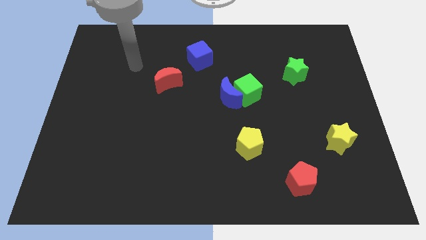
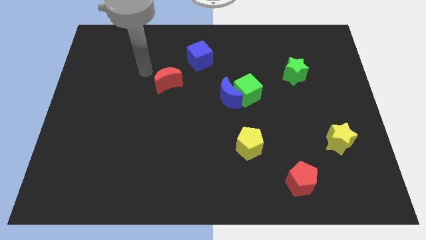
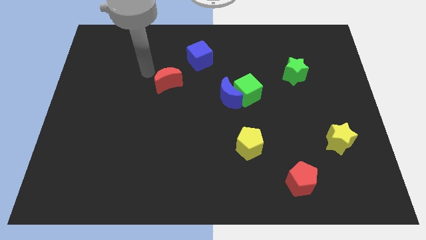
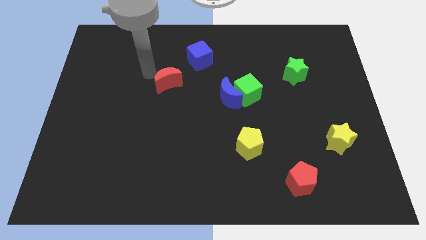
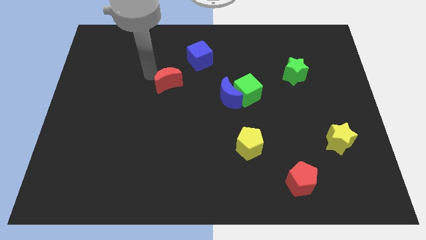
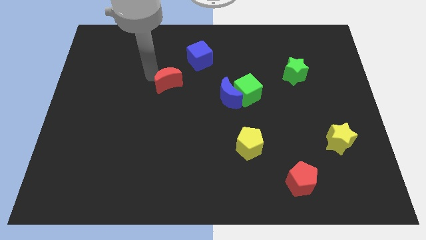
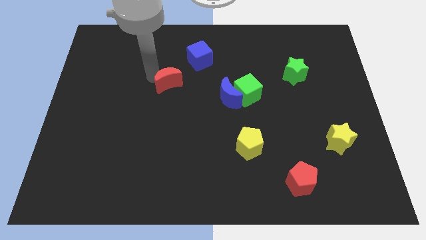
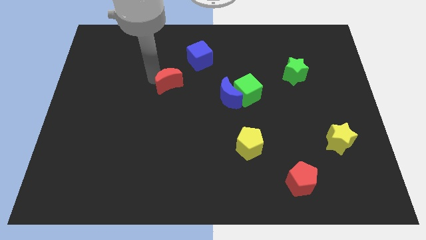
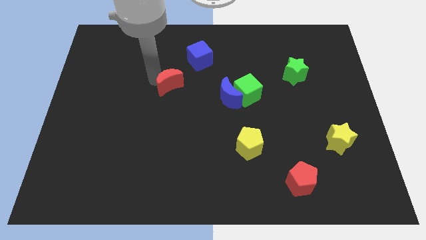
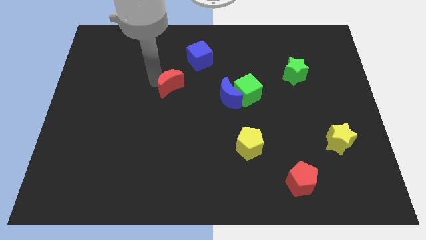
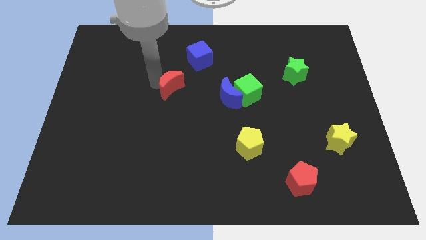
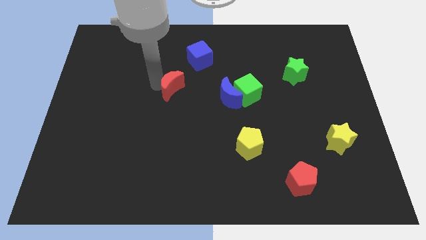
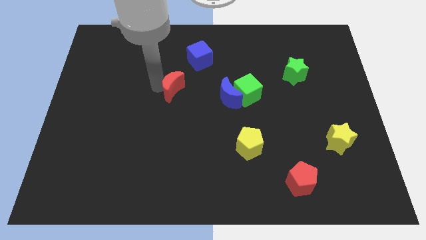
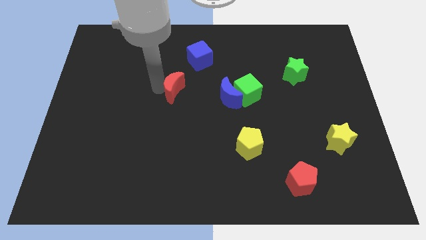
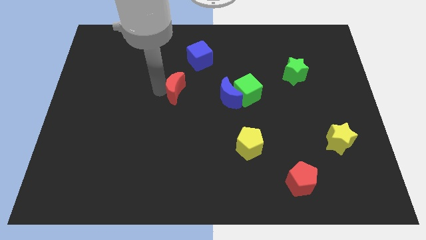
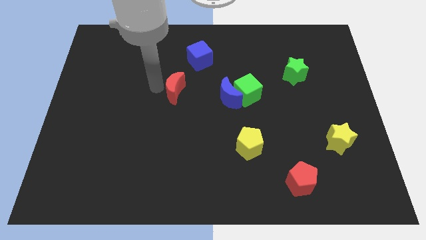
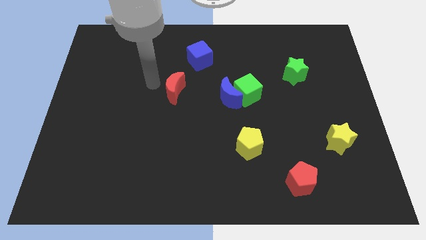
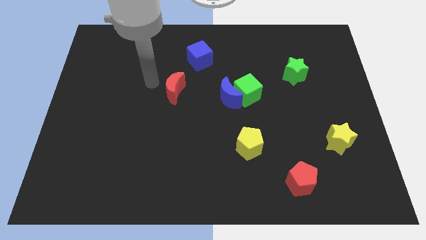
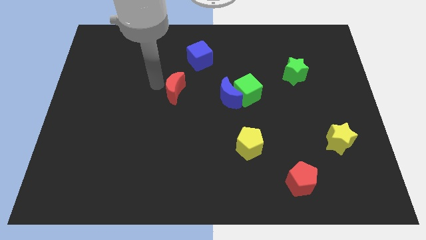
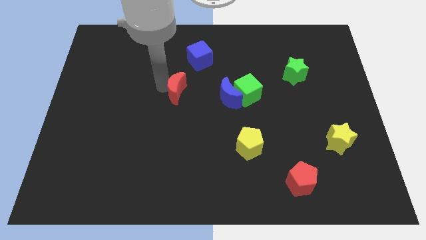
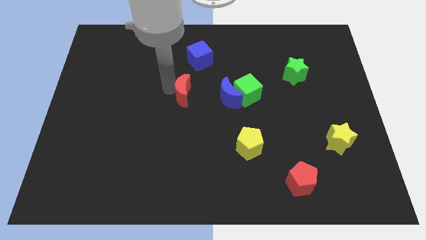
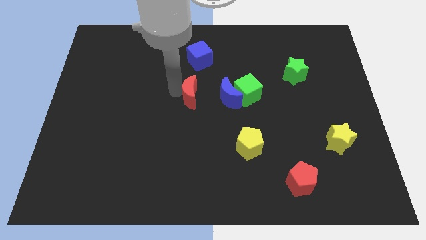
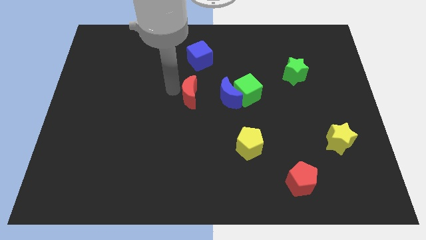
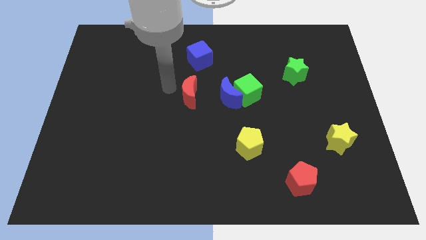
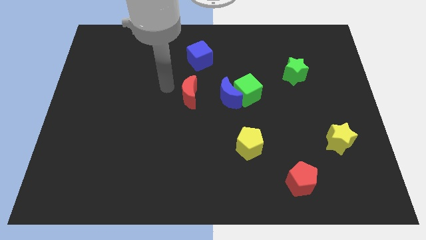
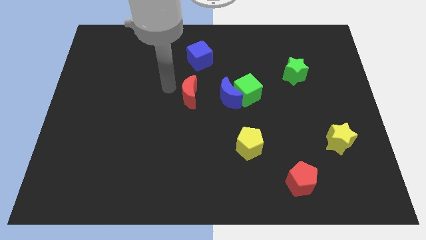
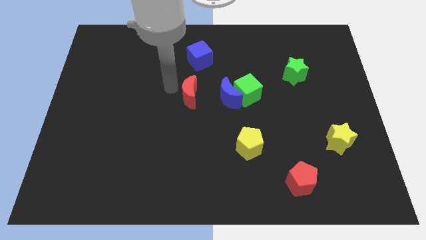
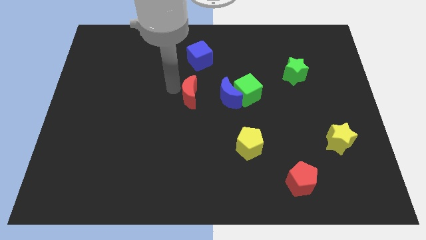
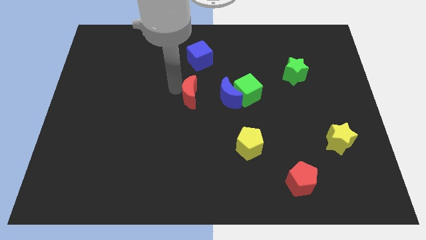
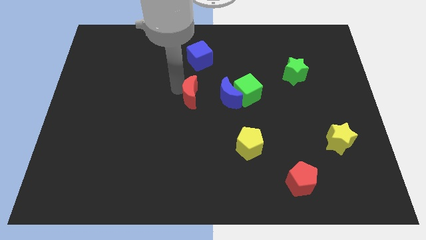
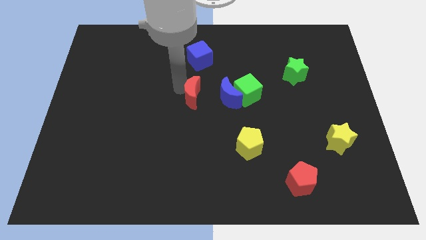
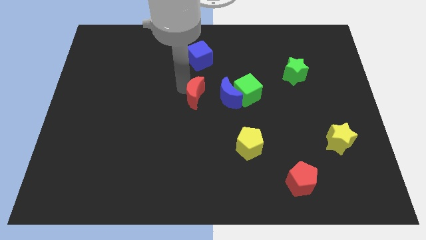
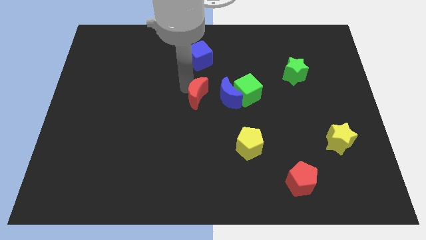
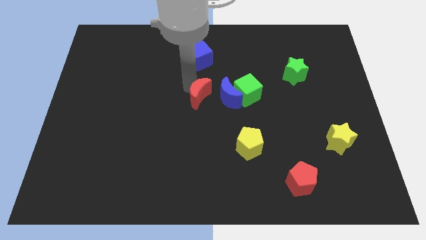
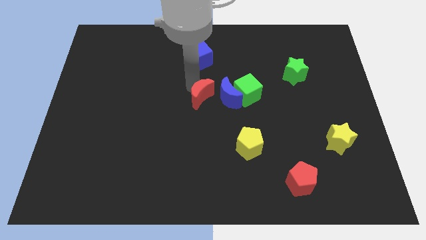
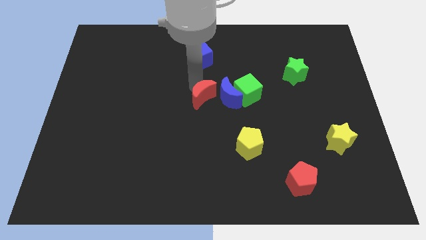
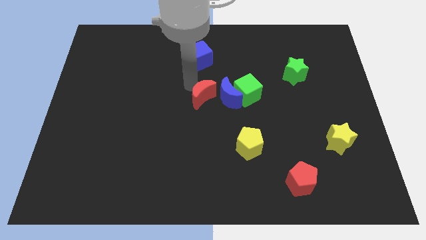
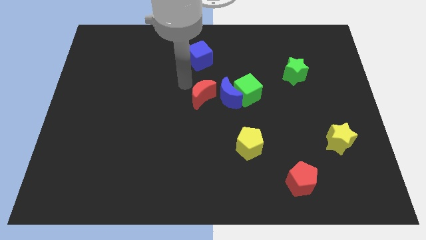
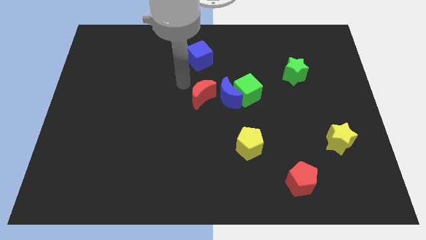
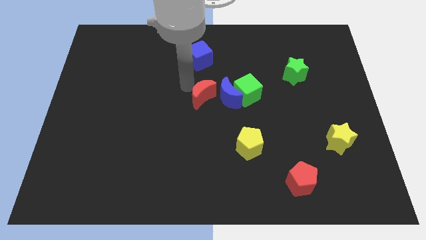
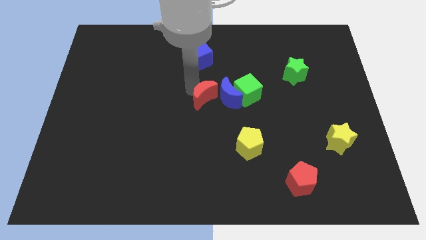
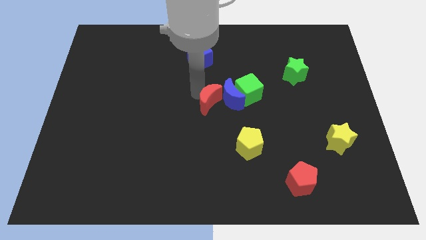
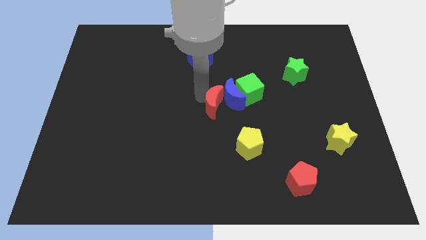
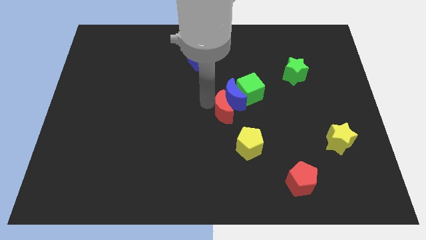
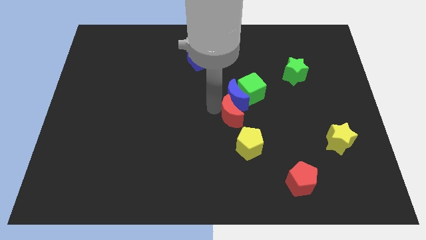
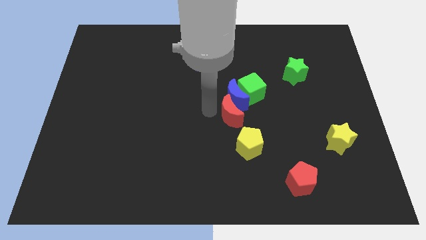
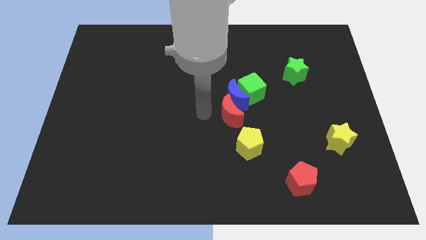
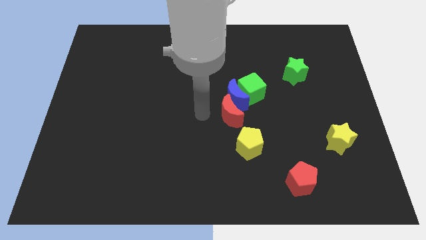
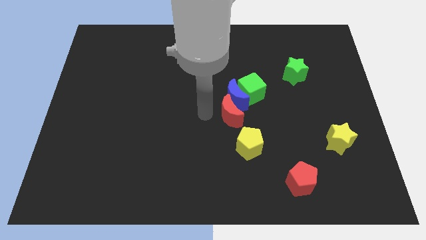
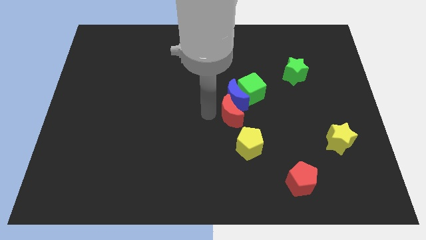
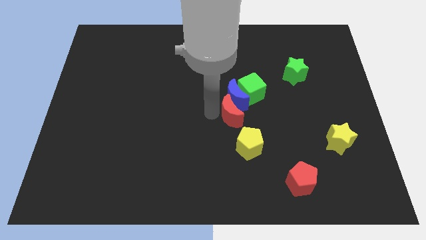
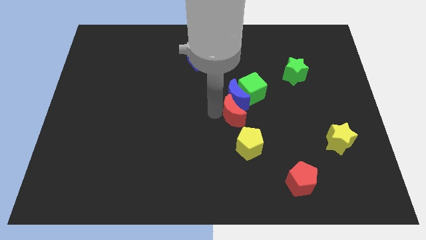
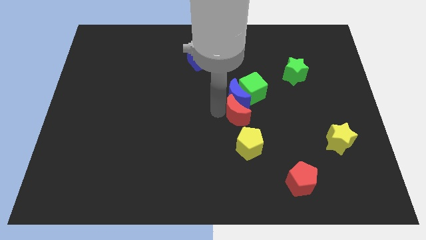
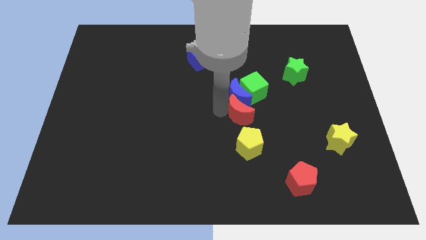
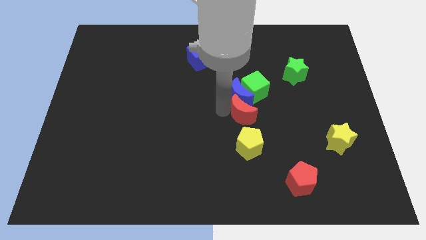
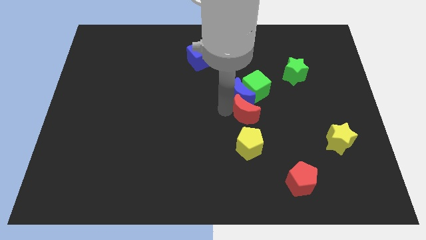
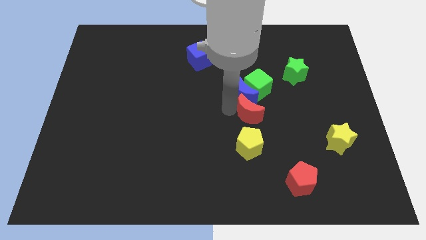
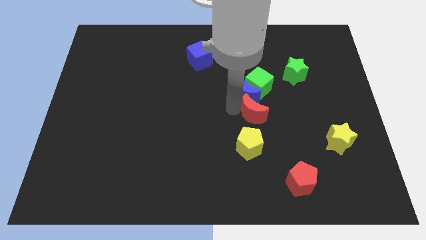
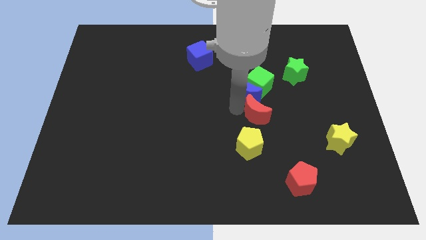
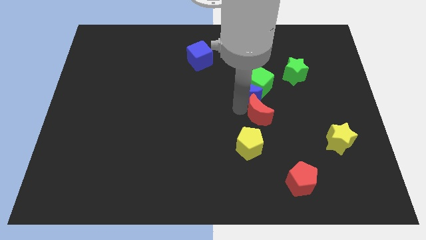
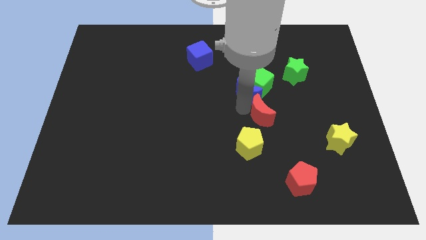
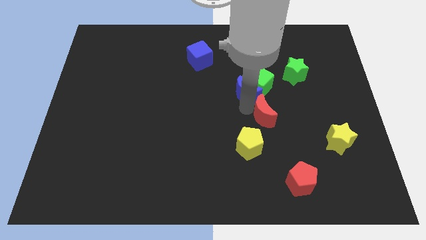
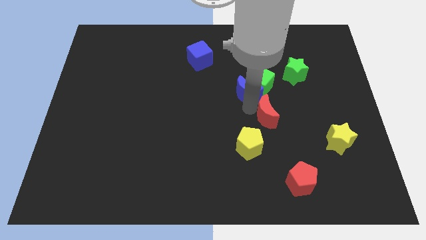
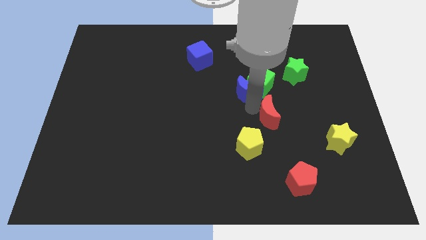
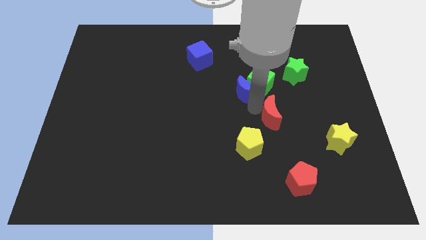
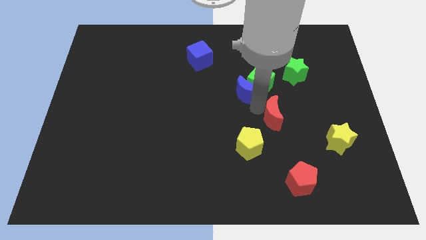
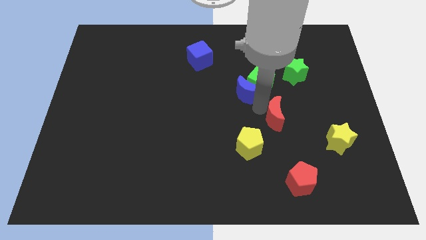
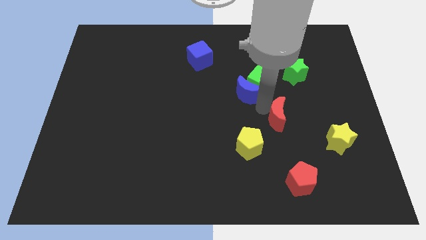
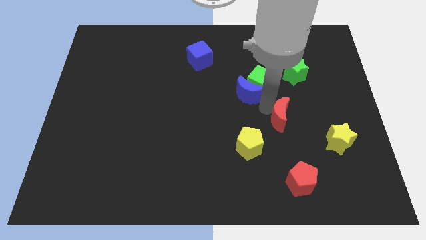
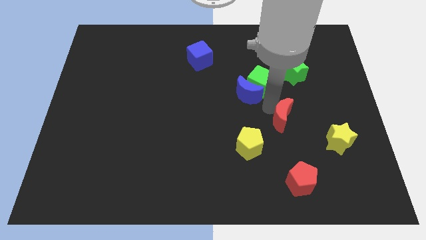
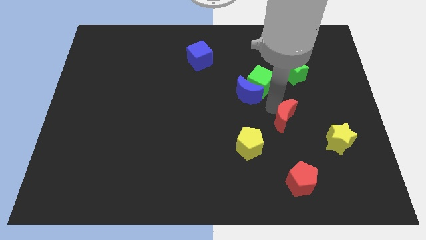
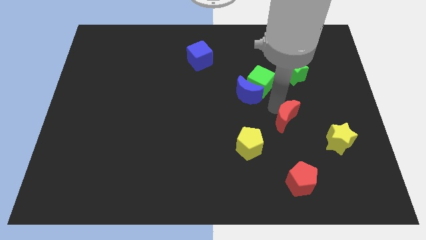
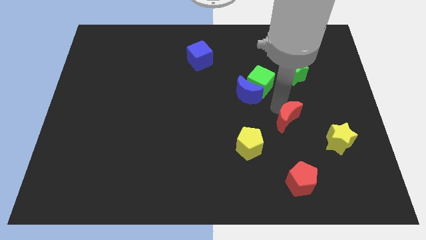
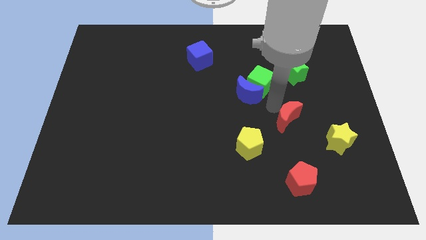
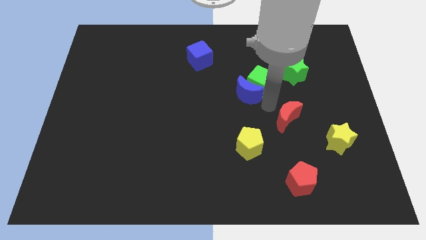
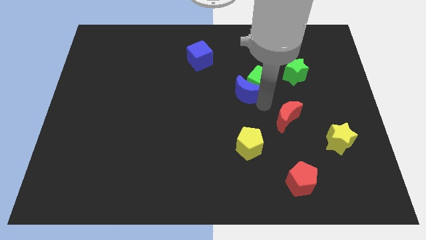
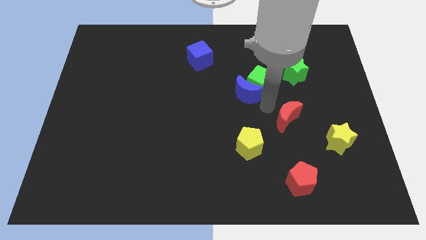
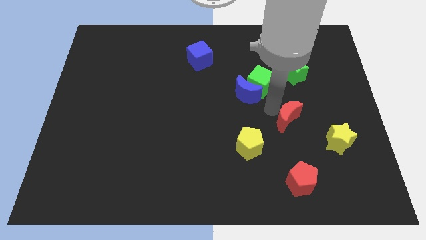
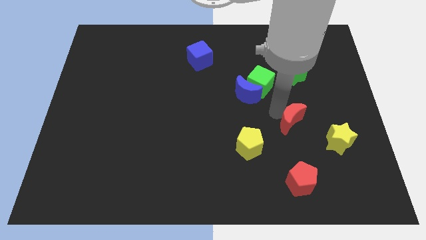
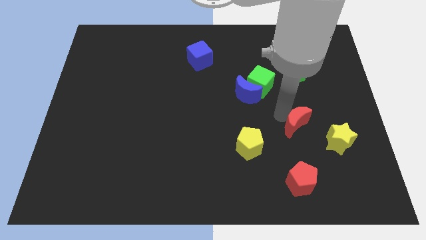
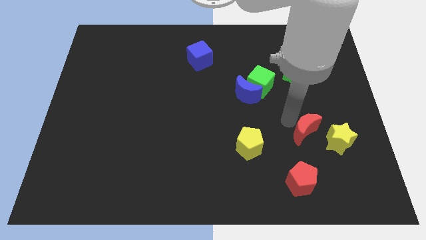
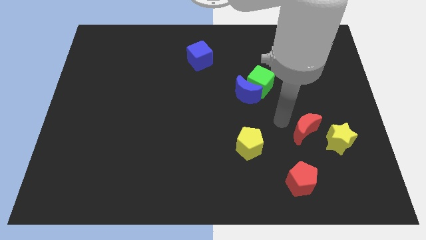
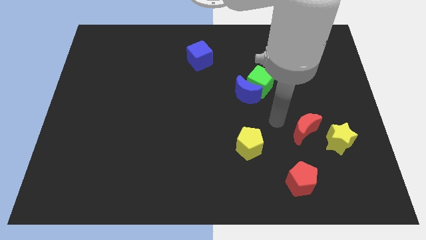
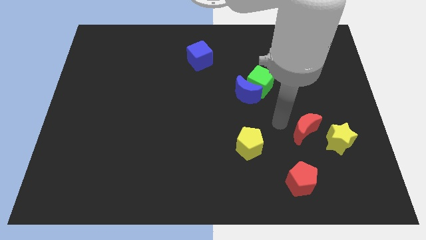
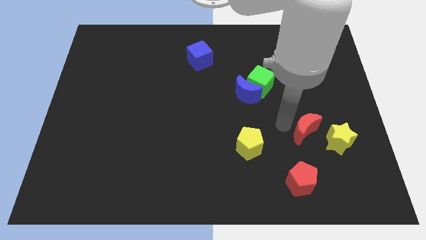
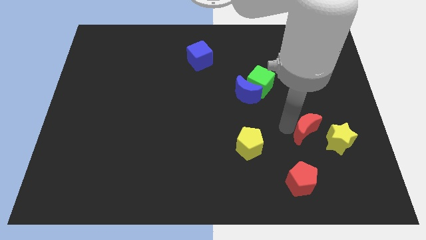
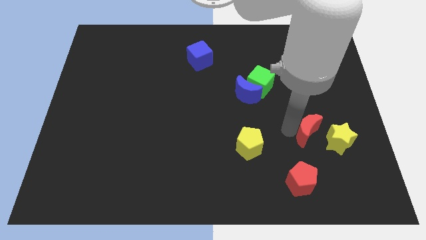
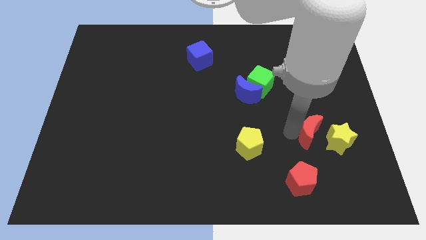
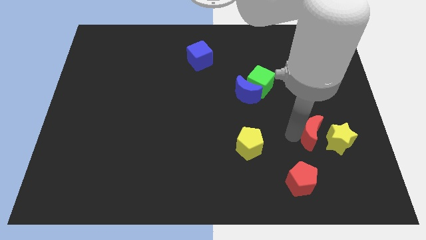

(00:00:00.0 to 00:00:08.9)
move the red moon to the yellow star
